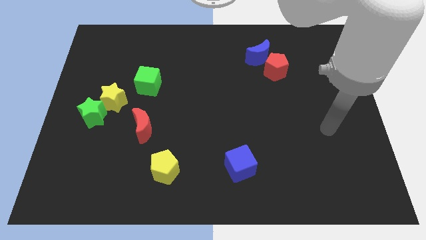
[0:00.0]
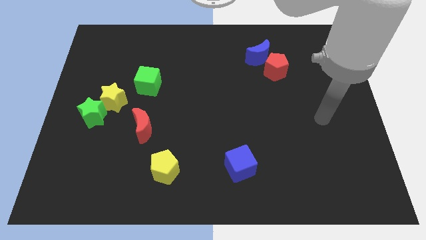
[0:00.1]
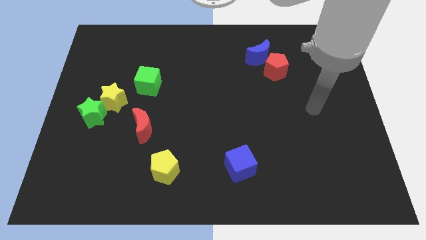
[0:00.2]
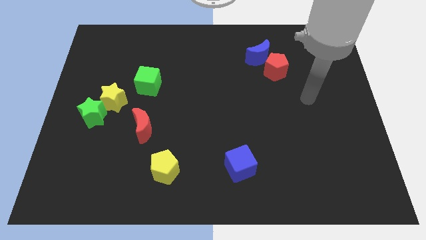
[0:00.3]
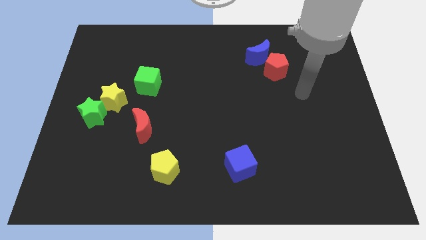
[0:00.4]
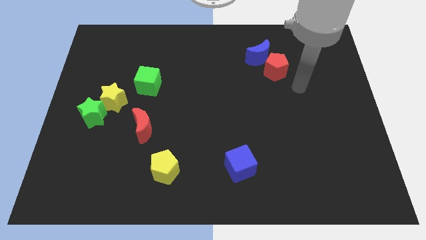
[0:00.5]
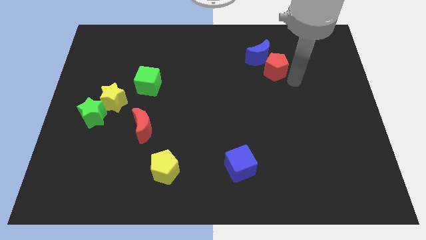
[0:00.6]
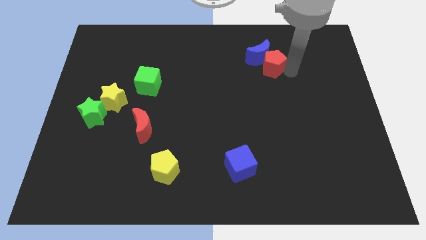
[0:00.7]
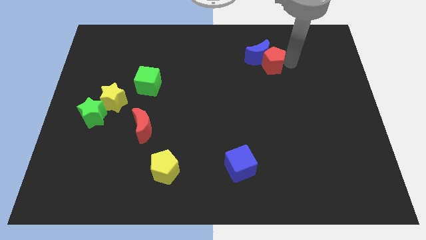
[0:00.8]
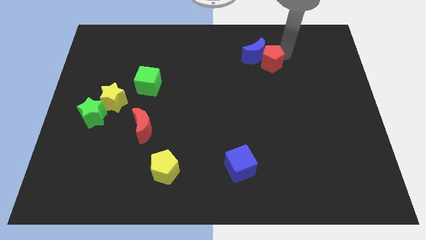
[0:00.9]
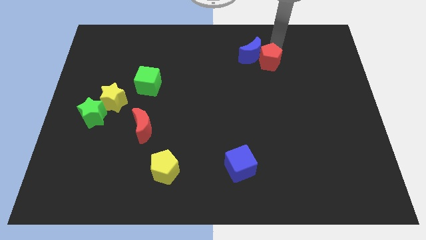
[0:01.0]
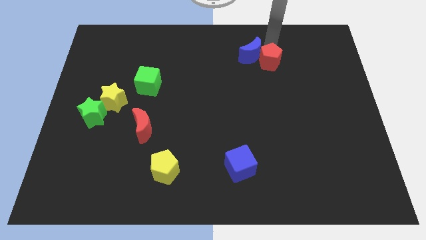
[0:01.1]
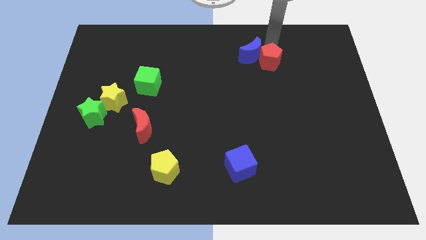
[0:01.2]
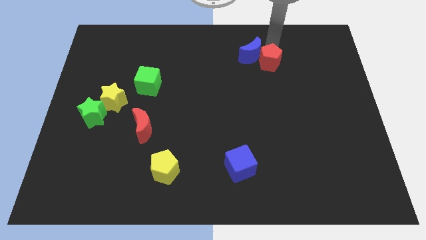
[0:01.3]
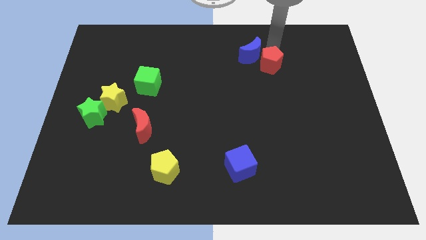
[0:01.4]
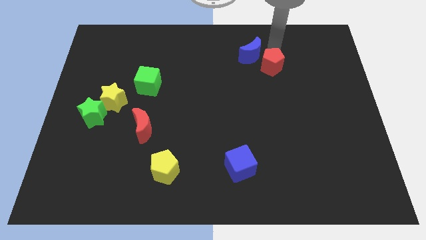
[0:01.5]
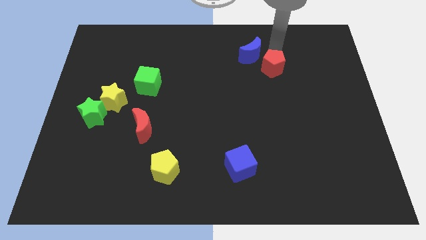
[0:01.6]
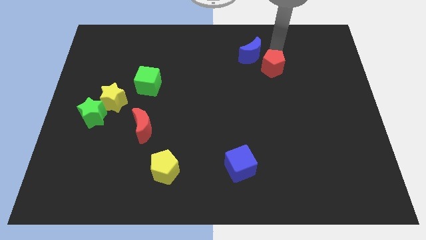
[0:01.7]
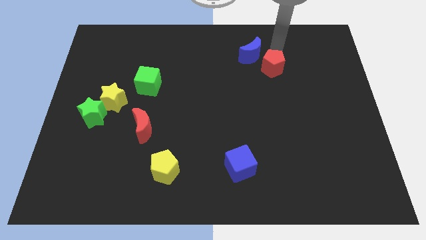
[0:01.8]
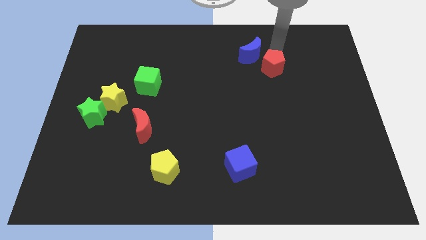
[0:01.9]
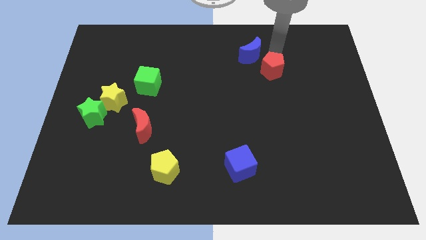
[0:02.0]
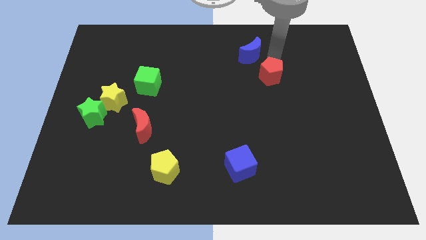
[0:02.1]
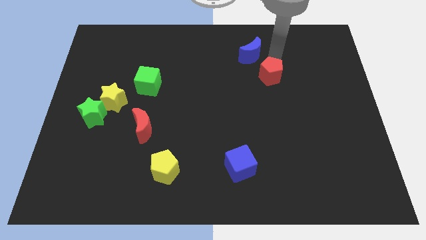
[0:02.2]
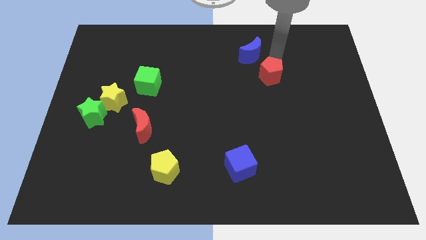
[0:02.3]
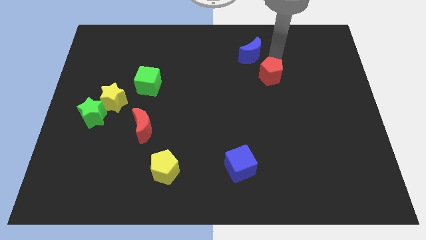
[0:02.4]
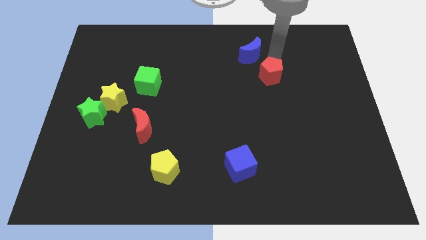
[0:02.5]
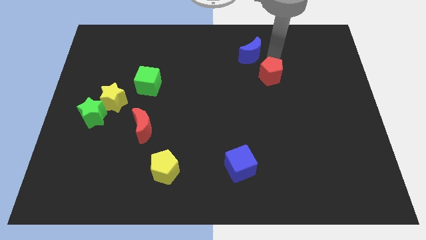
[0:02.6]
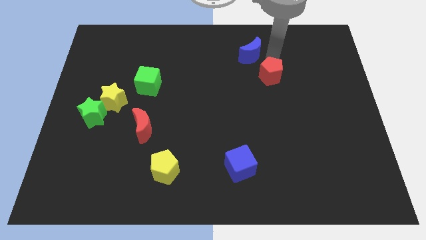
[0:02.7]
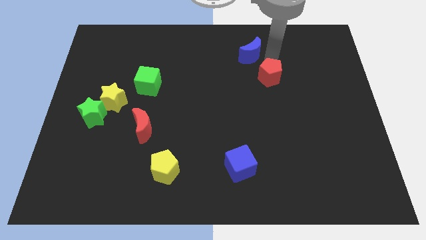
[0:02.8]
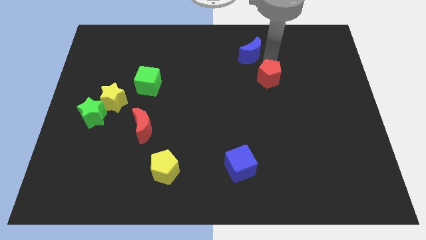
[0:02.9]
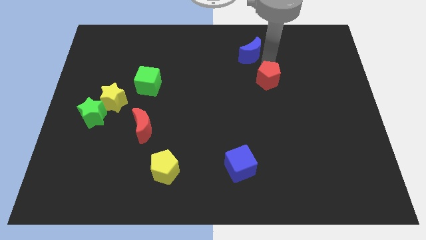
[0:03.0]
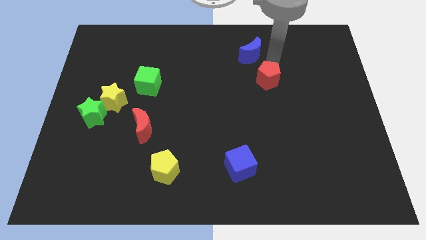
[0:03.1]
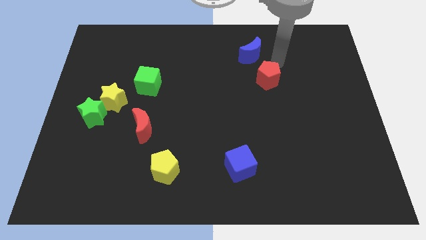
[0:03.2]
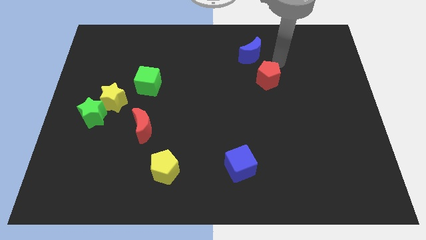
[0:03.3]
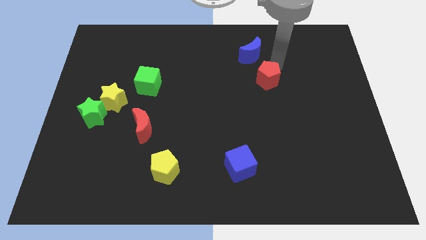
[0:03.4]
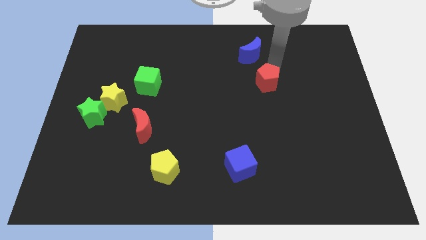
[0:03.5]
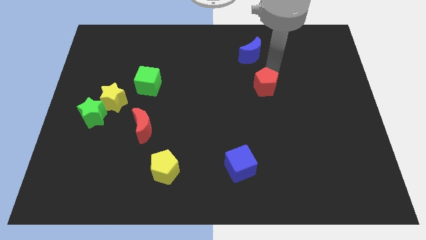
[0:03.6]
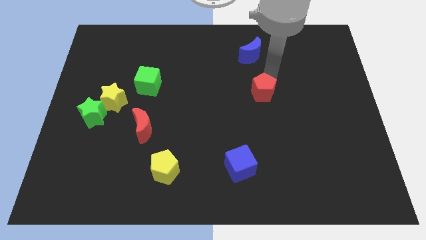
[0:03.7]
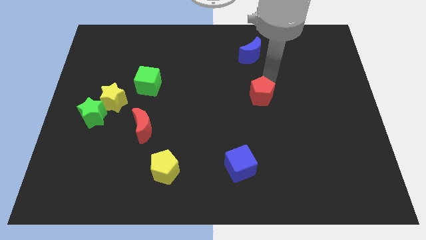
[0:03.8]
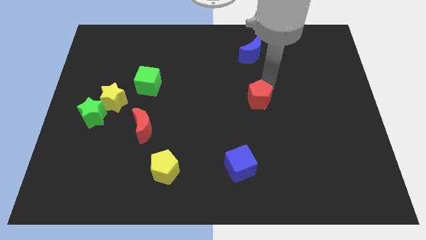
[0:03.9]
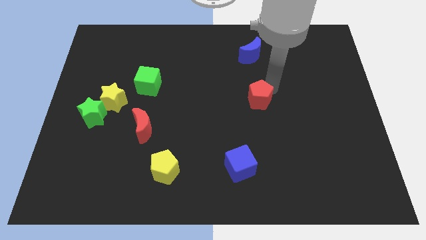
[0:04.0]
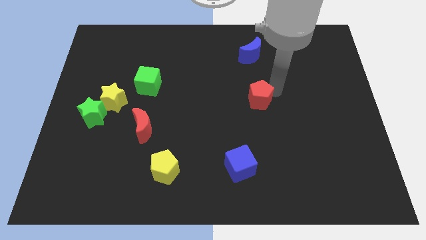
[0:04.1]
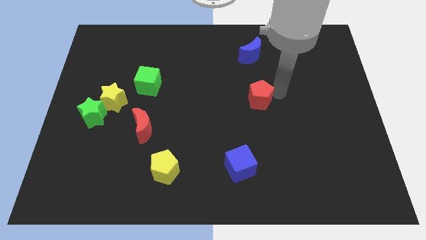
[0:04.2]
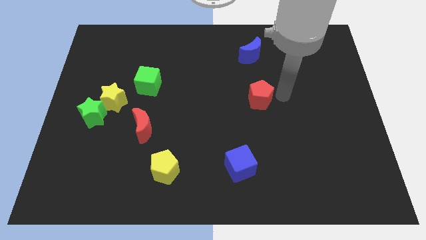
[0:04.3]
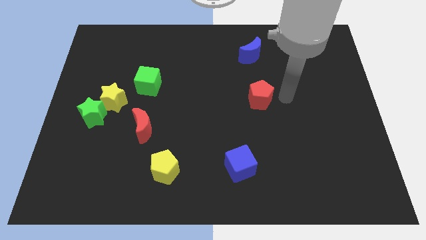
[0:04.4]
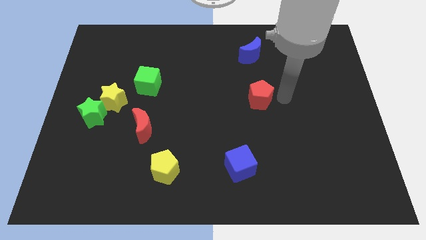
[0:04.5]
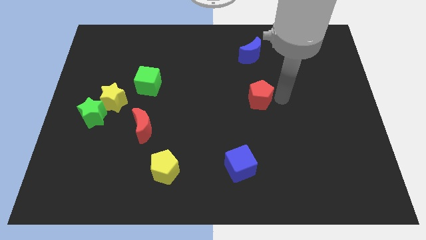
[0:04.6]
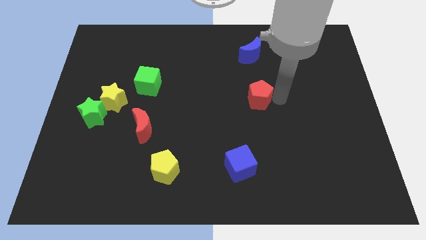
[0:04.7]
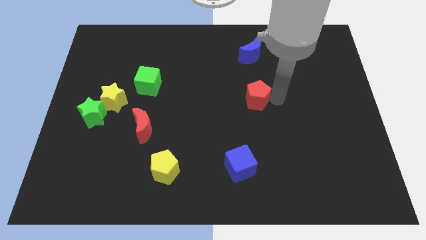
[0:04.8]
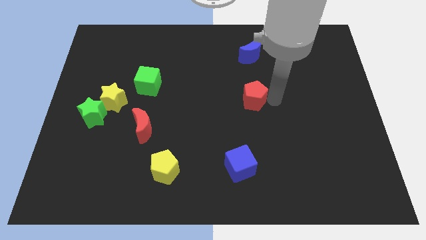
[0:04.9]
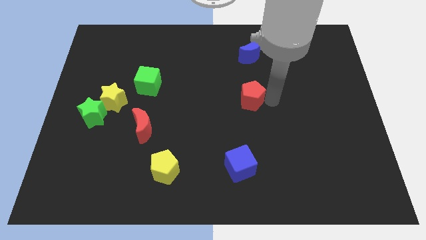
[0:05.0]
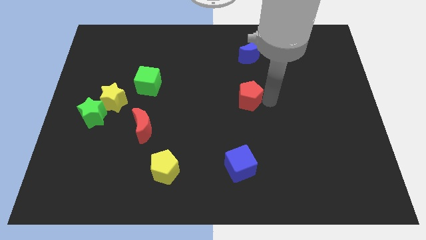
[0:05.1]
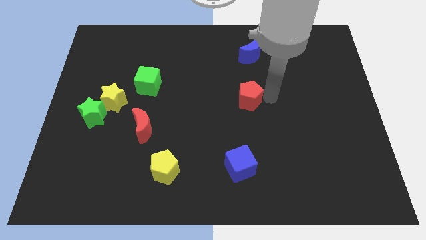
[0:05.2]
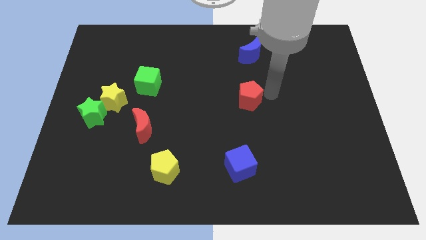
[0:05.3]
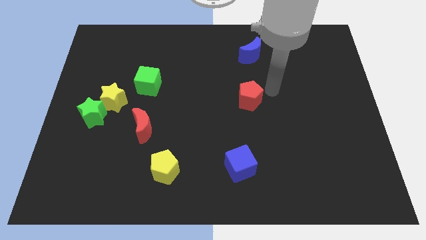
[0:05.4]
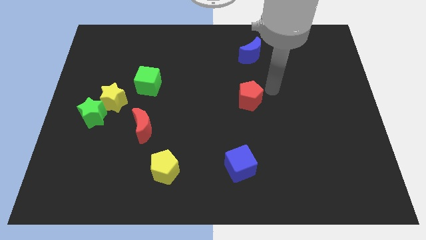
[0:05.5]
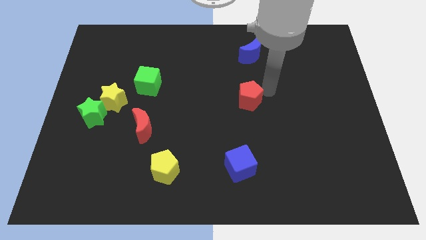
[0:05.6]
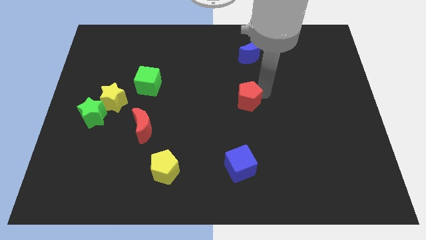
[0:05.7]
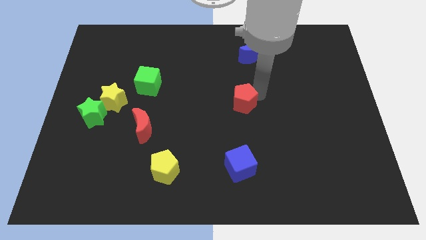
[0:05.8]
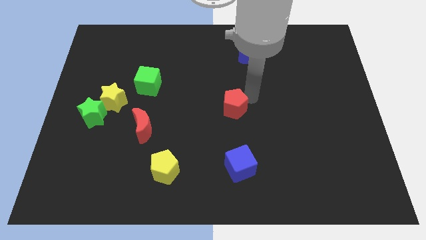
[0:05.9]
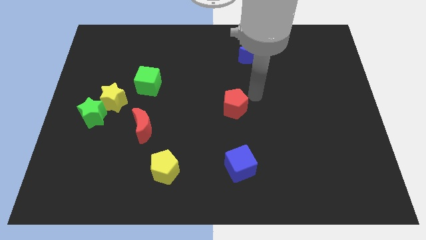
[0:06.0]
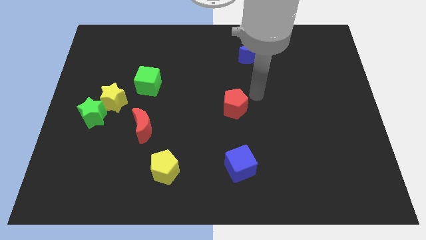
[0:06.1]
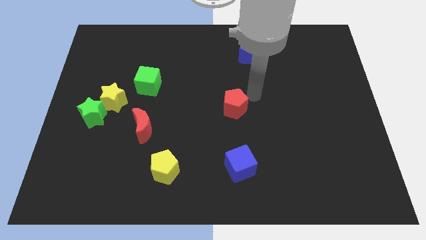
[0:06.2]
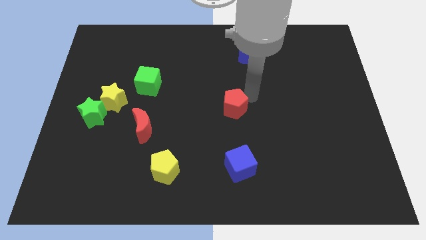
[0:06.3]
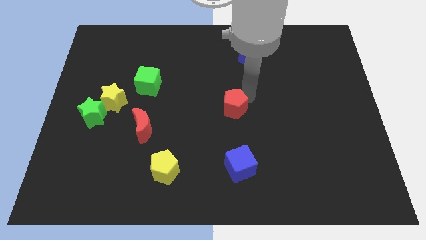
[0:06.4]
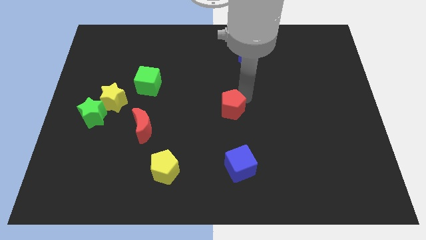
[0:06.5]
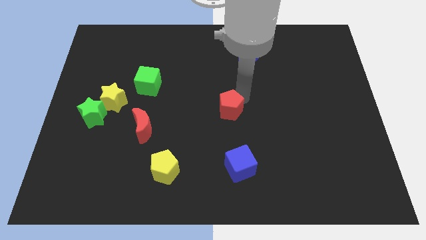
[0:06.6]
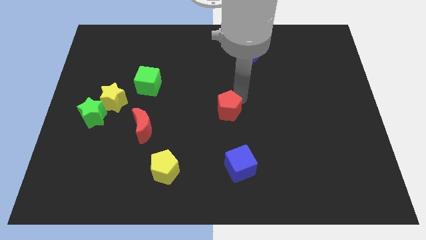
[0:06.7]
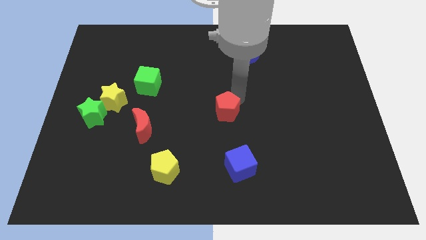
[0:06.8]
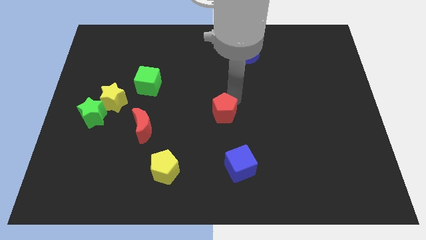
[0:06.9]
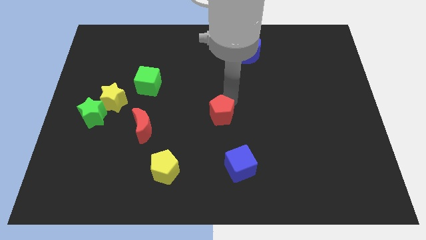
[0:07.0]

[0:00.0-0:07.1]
push the red pentagon diagonally down and left

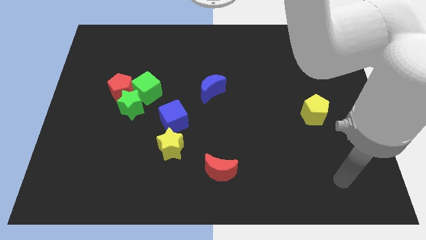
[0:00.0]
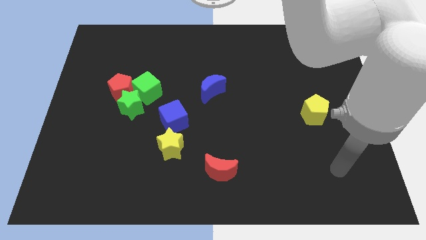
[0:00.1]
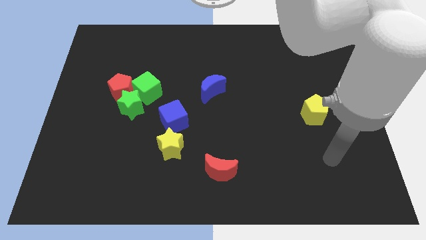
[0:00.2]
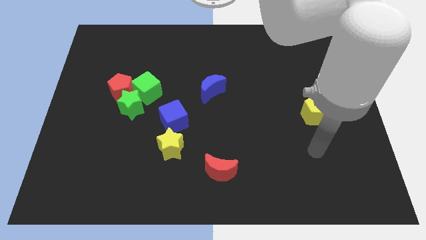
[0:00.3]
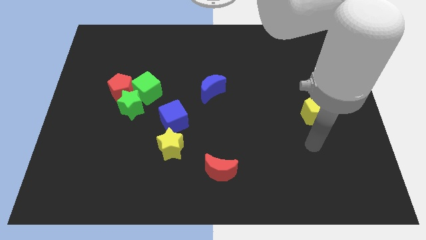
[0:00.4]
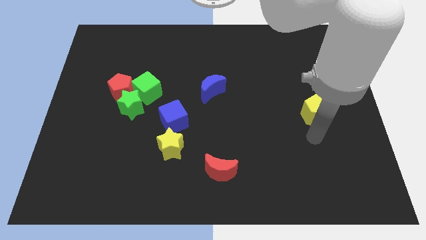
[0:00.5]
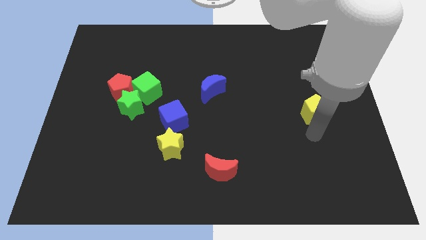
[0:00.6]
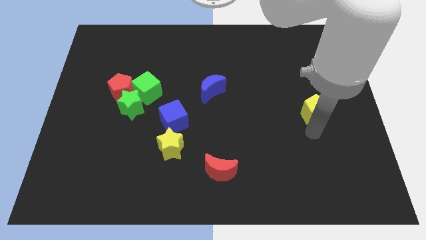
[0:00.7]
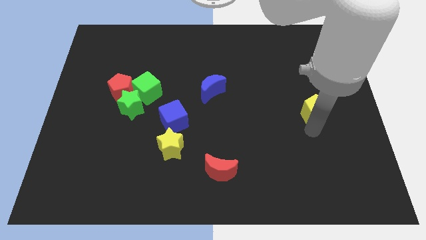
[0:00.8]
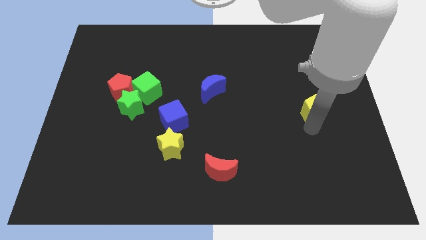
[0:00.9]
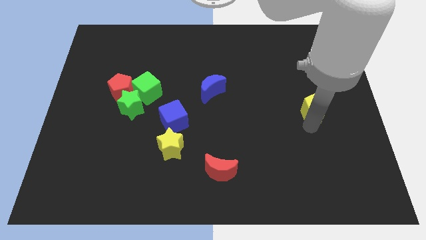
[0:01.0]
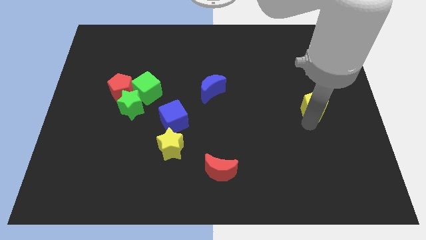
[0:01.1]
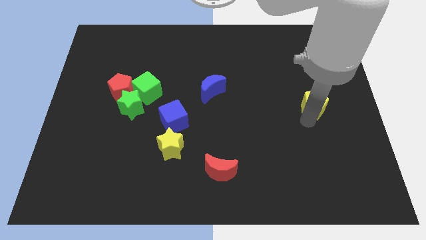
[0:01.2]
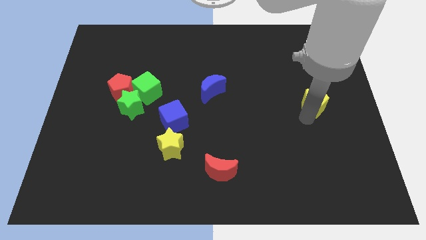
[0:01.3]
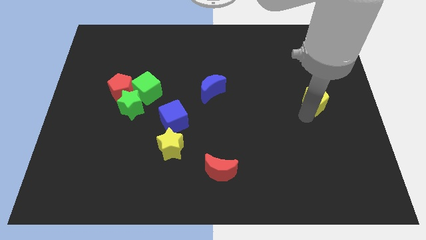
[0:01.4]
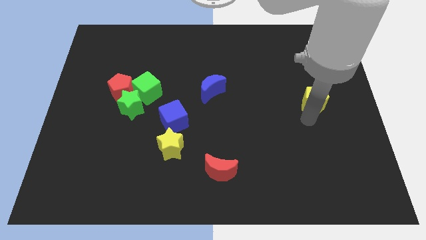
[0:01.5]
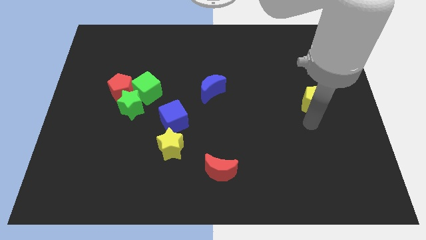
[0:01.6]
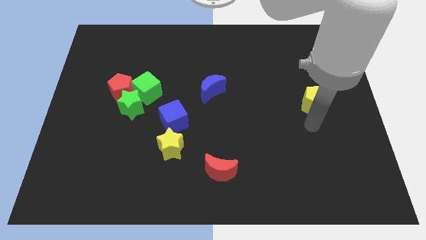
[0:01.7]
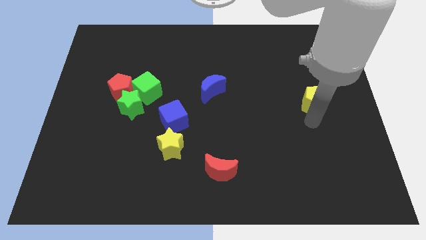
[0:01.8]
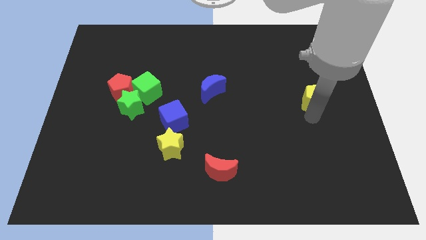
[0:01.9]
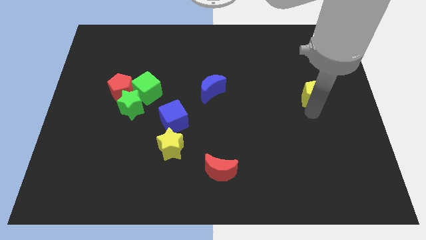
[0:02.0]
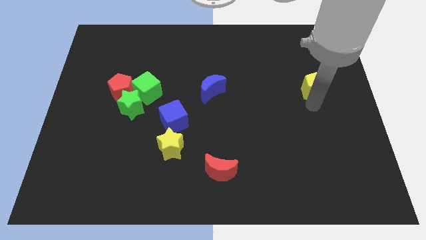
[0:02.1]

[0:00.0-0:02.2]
push the yellow pentagon somewhat up
